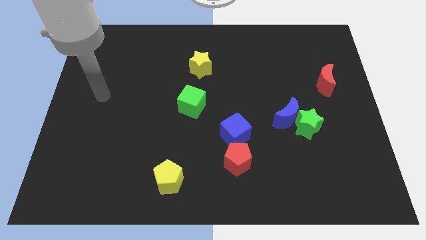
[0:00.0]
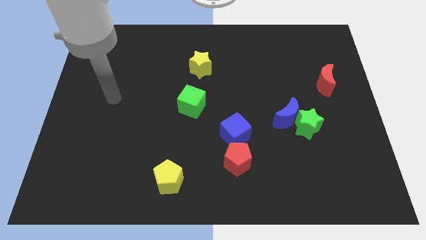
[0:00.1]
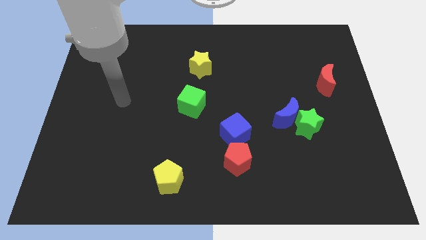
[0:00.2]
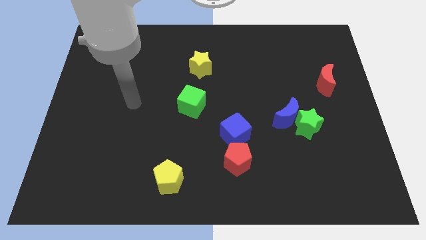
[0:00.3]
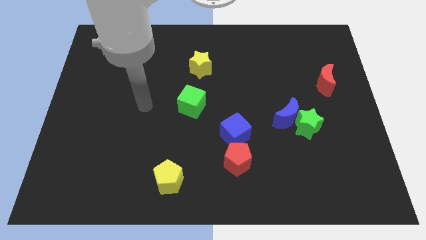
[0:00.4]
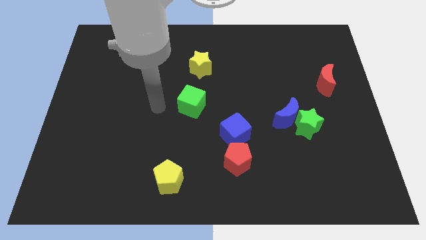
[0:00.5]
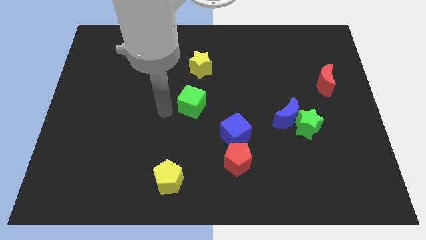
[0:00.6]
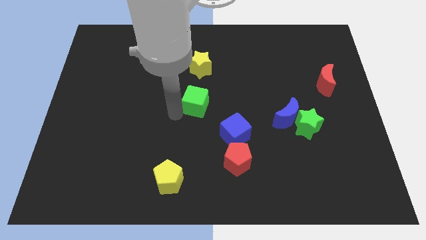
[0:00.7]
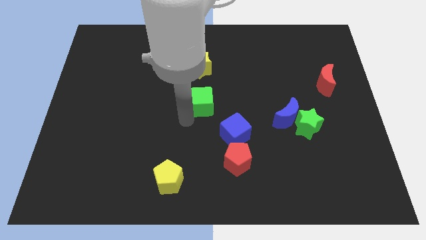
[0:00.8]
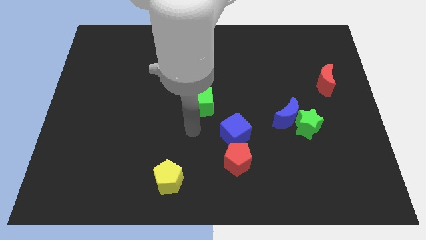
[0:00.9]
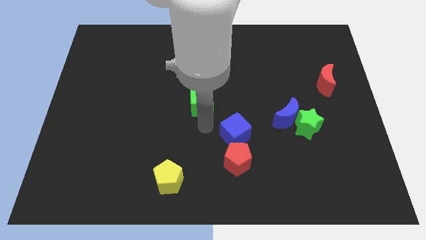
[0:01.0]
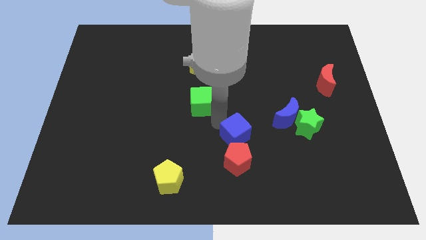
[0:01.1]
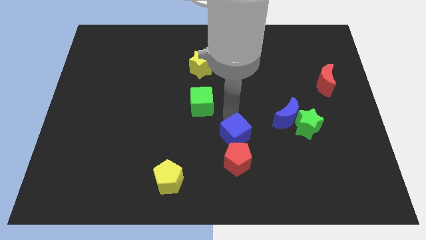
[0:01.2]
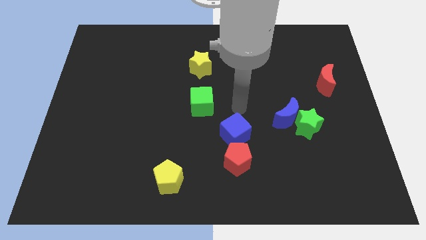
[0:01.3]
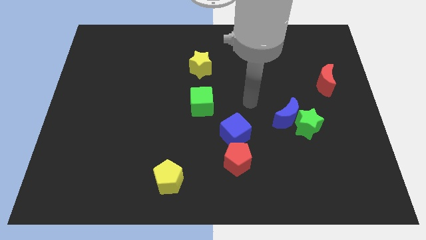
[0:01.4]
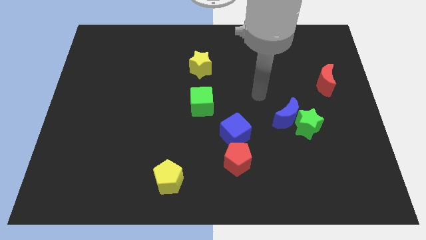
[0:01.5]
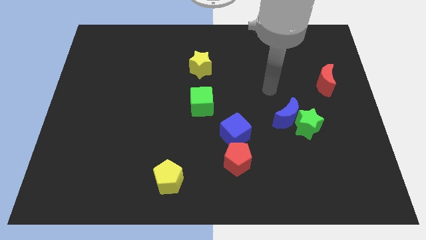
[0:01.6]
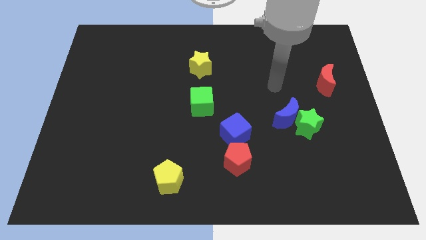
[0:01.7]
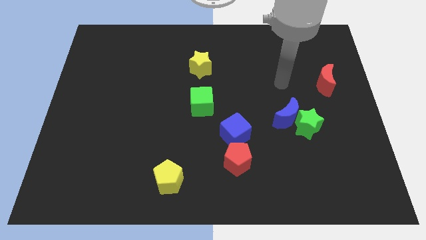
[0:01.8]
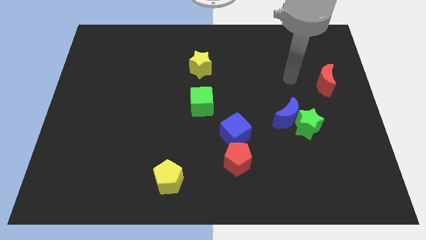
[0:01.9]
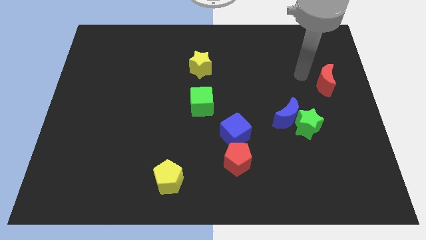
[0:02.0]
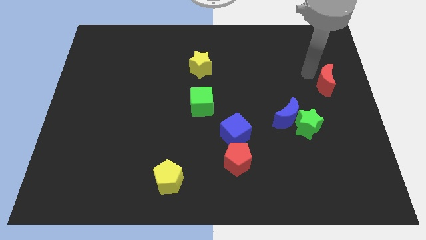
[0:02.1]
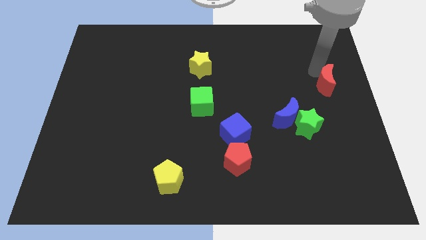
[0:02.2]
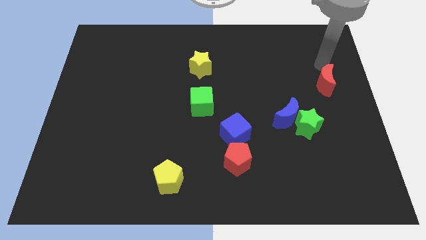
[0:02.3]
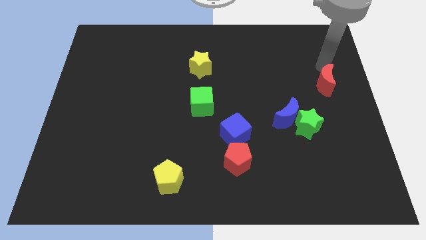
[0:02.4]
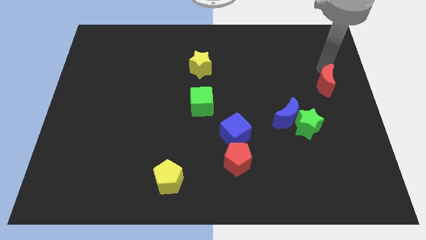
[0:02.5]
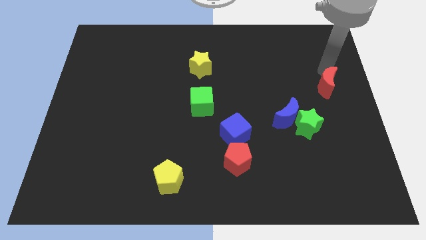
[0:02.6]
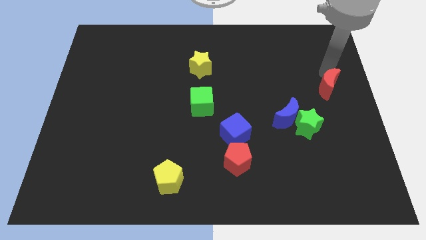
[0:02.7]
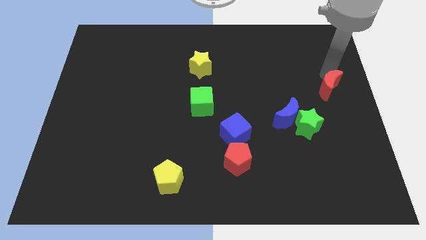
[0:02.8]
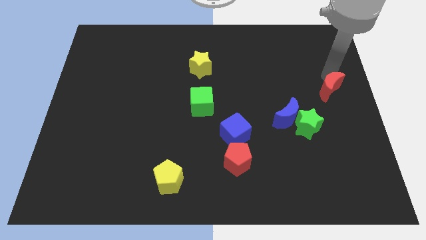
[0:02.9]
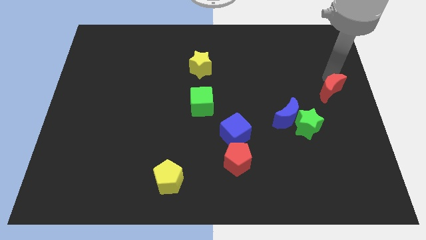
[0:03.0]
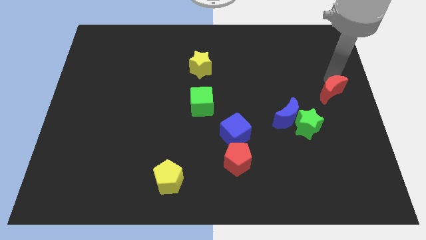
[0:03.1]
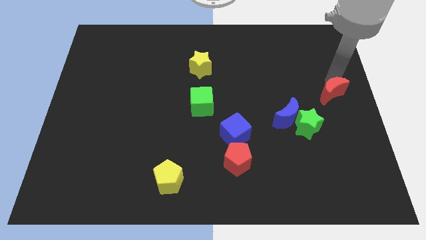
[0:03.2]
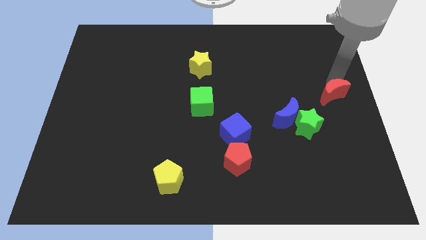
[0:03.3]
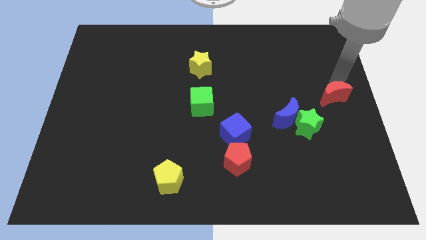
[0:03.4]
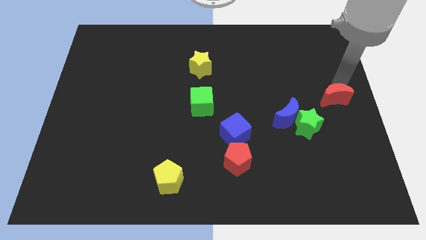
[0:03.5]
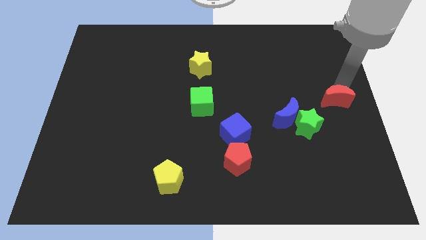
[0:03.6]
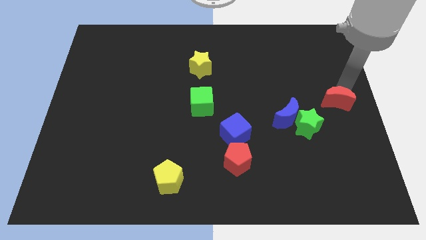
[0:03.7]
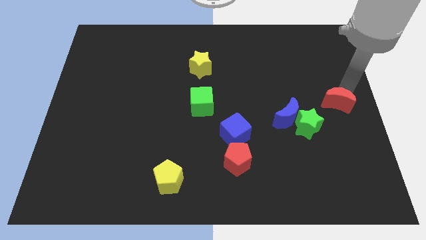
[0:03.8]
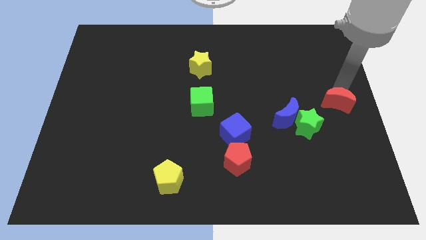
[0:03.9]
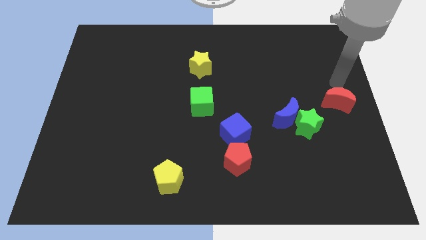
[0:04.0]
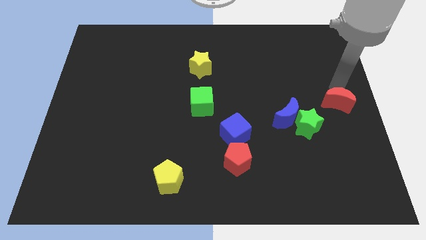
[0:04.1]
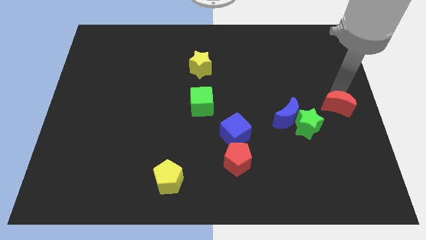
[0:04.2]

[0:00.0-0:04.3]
move the red moon down a little bit

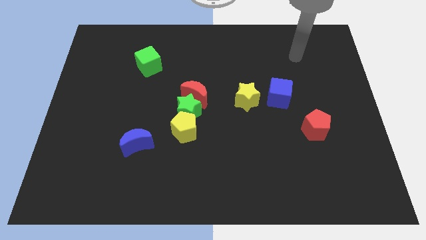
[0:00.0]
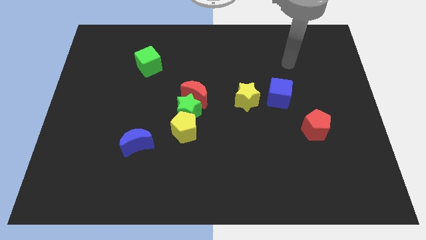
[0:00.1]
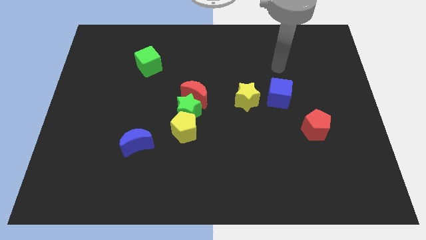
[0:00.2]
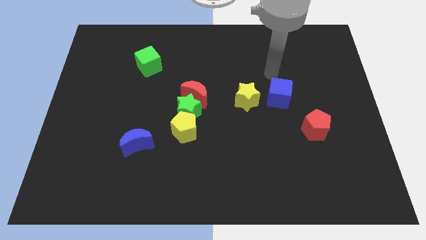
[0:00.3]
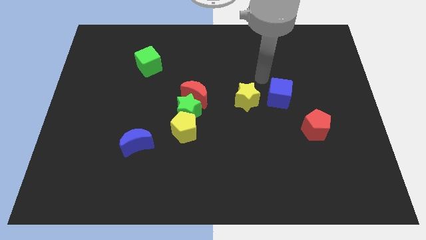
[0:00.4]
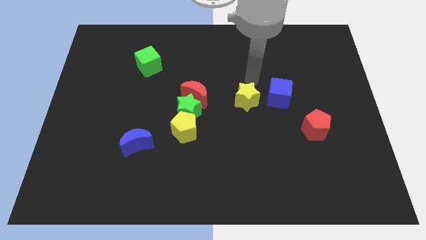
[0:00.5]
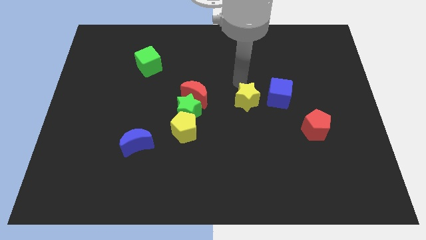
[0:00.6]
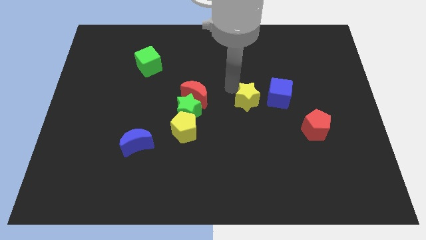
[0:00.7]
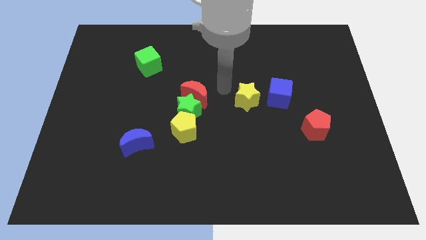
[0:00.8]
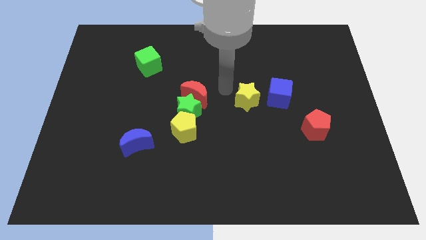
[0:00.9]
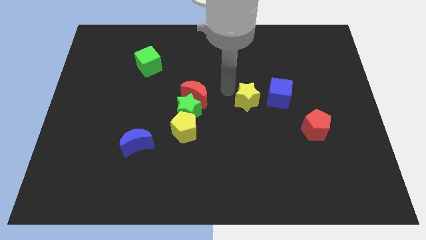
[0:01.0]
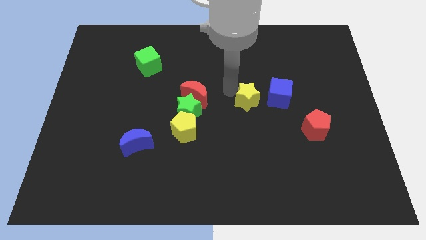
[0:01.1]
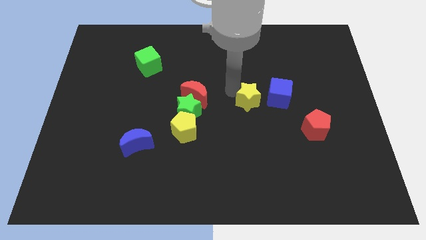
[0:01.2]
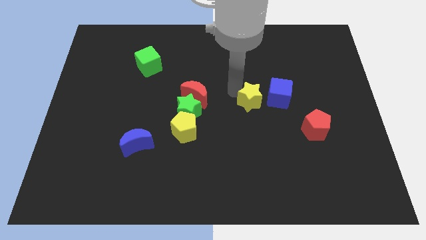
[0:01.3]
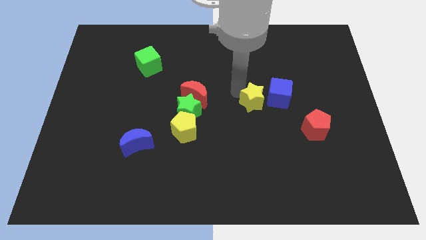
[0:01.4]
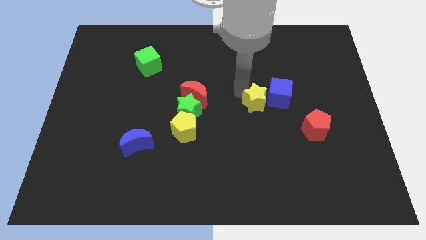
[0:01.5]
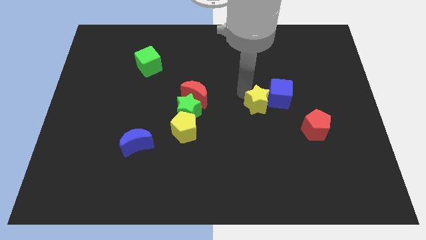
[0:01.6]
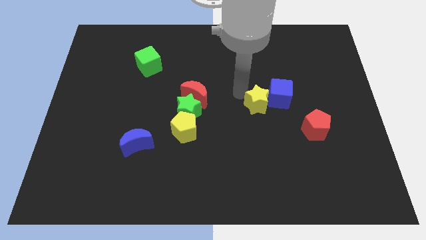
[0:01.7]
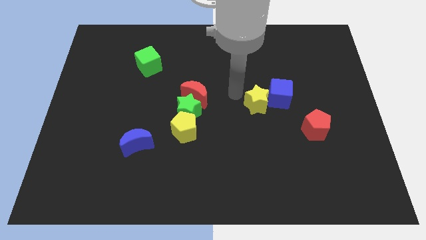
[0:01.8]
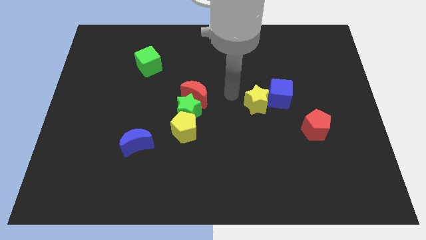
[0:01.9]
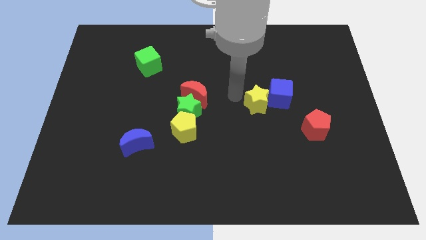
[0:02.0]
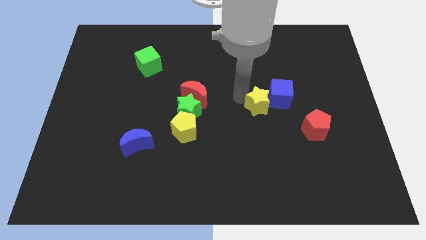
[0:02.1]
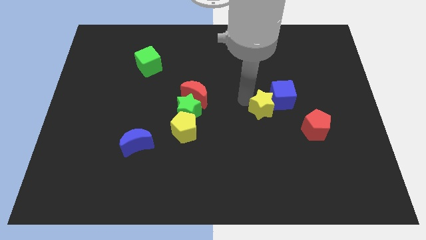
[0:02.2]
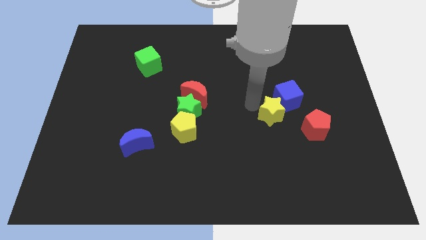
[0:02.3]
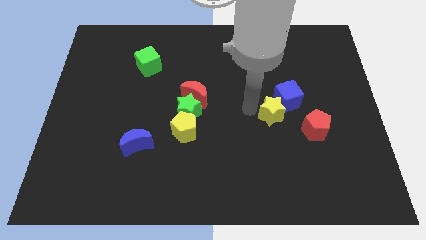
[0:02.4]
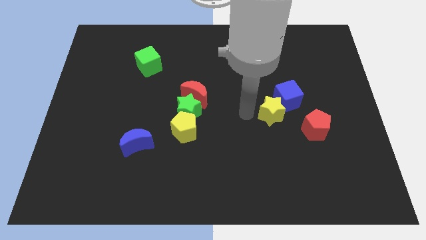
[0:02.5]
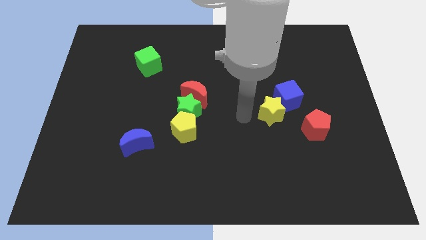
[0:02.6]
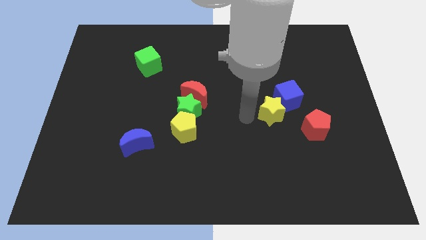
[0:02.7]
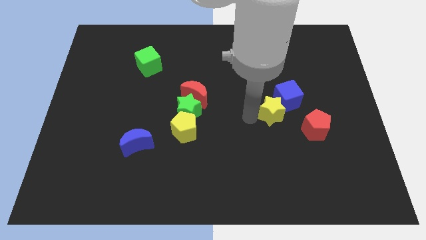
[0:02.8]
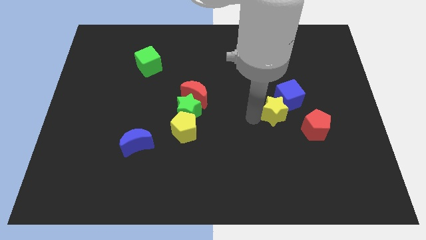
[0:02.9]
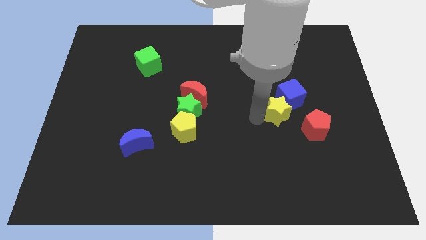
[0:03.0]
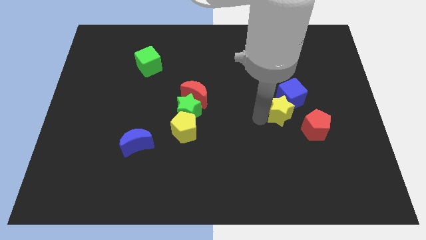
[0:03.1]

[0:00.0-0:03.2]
slightly move the yellow star to the right

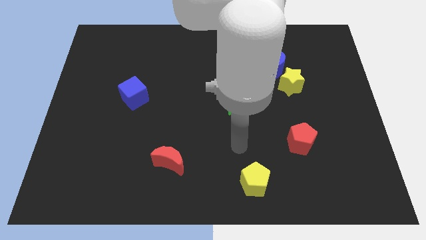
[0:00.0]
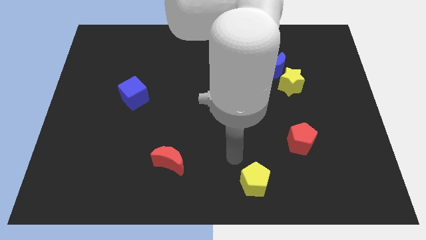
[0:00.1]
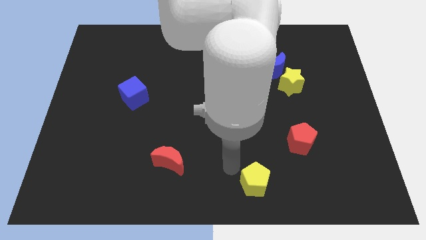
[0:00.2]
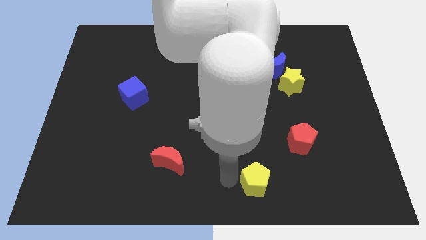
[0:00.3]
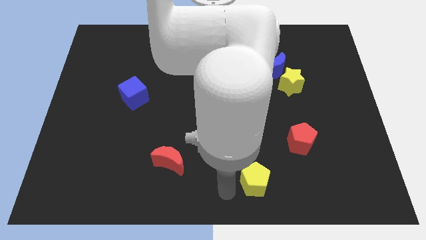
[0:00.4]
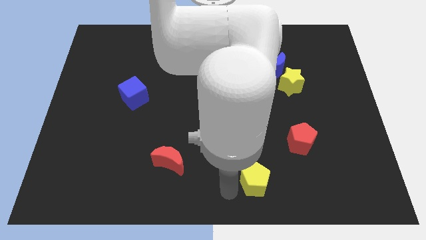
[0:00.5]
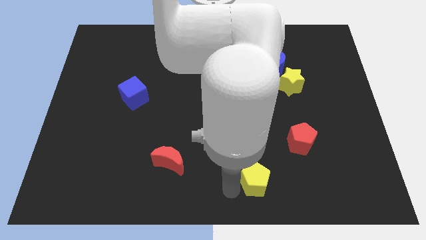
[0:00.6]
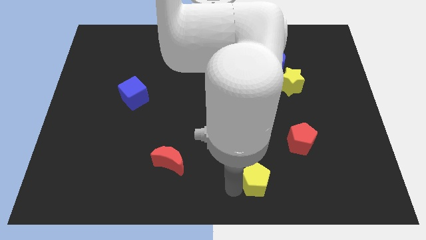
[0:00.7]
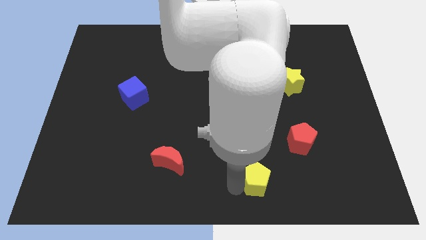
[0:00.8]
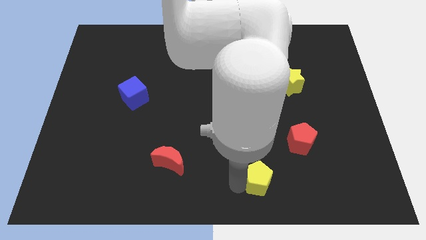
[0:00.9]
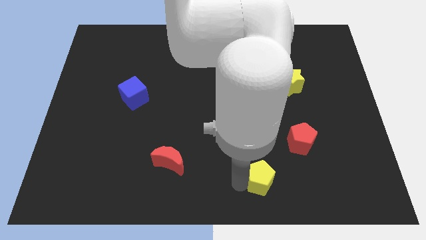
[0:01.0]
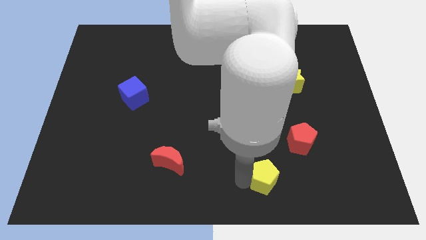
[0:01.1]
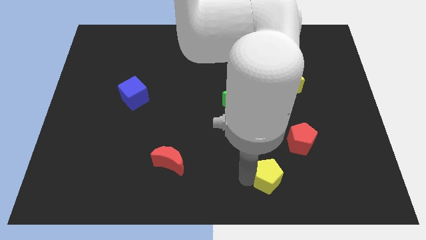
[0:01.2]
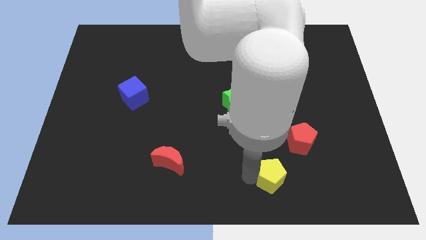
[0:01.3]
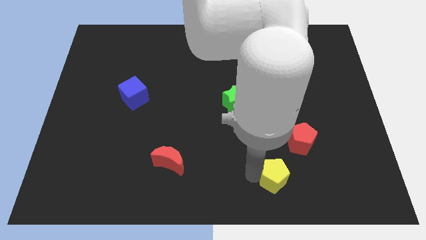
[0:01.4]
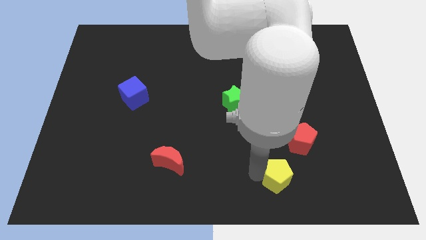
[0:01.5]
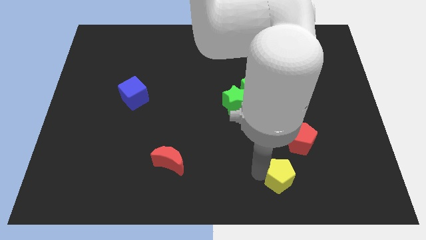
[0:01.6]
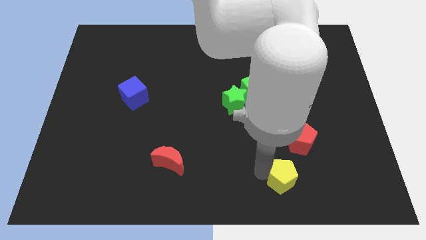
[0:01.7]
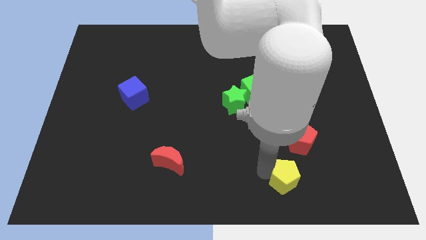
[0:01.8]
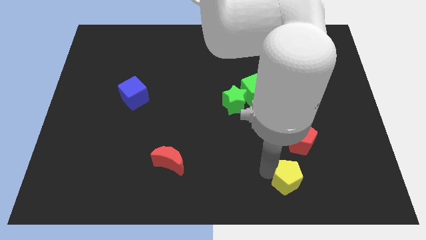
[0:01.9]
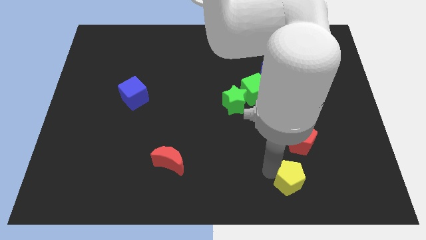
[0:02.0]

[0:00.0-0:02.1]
push the yellow pentagon right somewhat
